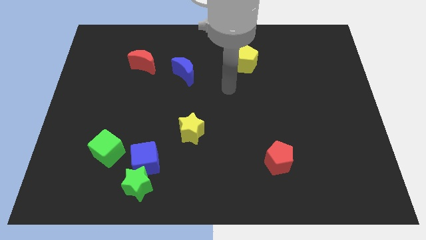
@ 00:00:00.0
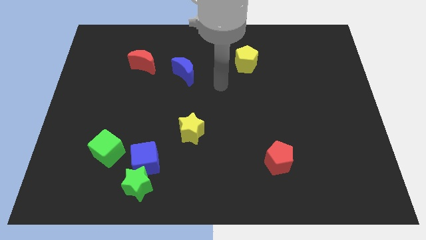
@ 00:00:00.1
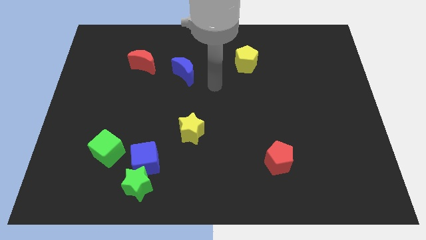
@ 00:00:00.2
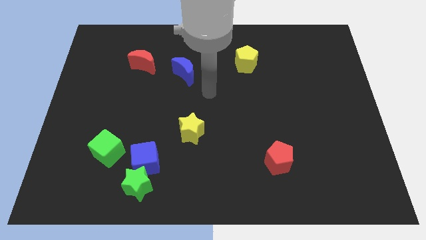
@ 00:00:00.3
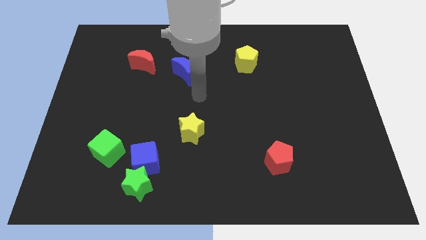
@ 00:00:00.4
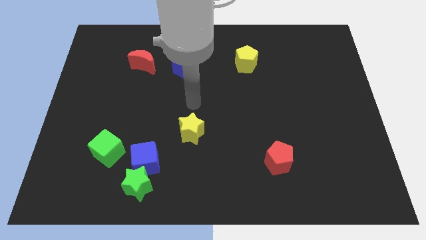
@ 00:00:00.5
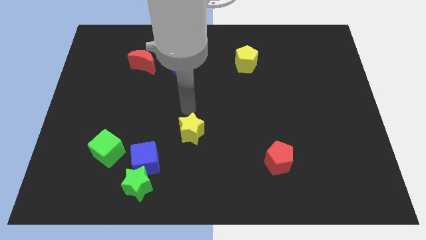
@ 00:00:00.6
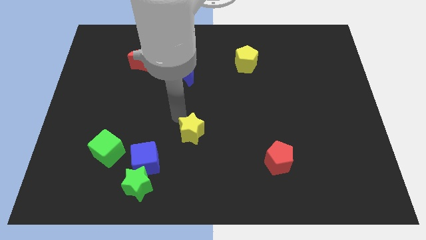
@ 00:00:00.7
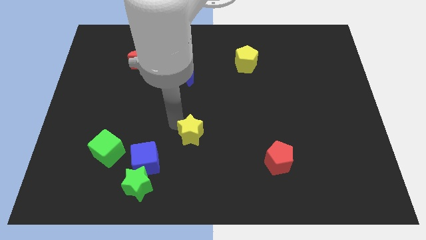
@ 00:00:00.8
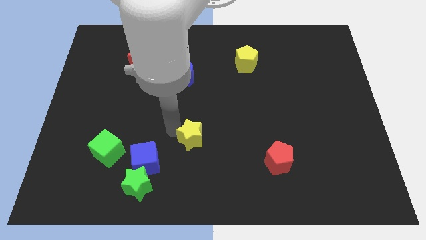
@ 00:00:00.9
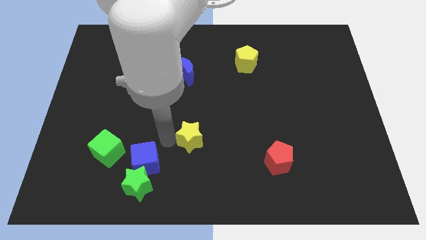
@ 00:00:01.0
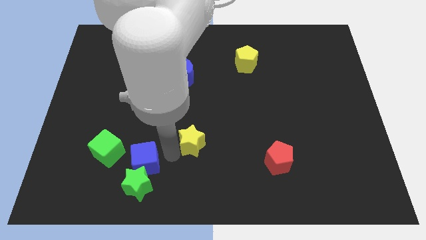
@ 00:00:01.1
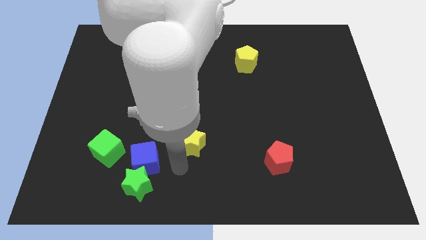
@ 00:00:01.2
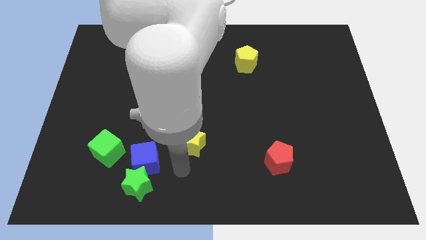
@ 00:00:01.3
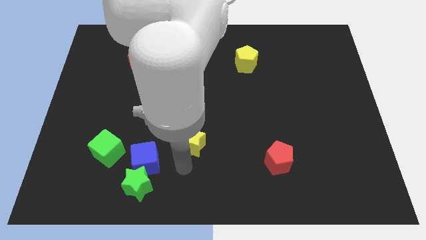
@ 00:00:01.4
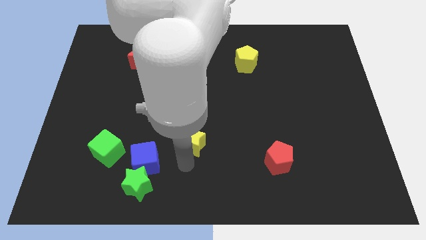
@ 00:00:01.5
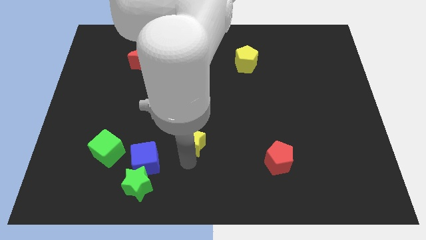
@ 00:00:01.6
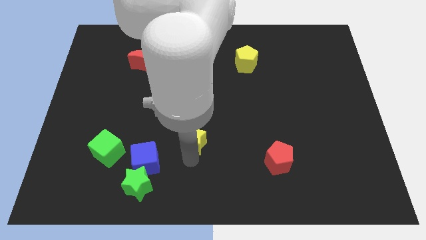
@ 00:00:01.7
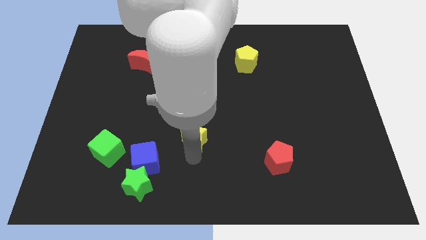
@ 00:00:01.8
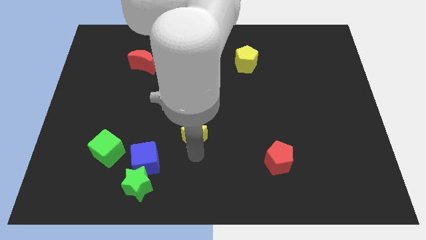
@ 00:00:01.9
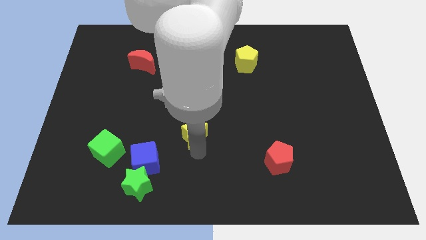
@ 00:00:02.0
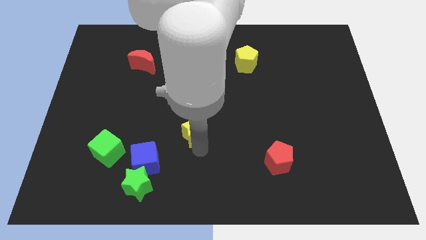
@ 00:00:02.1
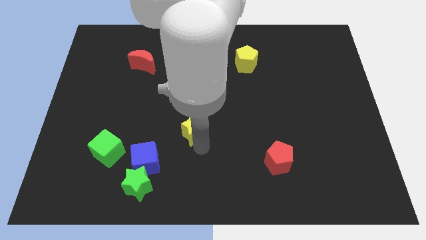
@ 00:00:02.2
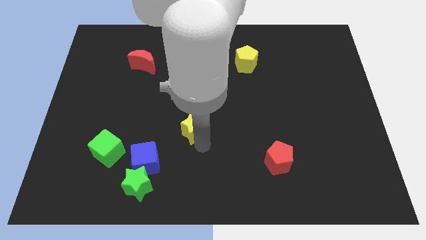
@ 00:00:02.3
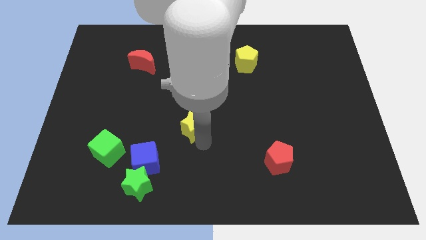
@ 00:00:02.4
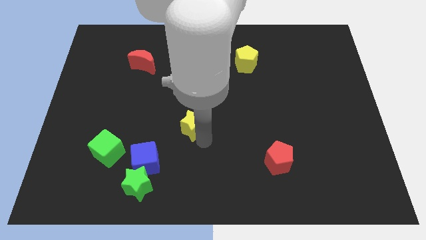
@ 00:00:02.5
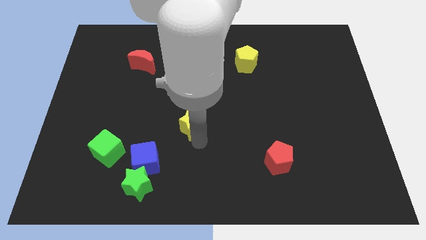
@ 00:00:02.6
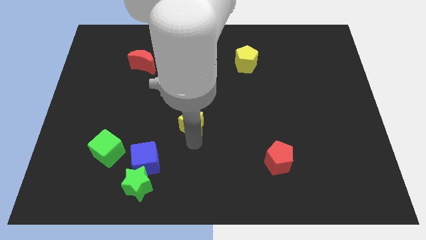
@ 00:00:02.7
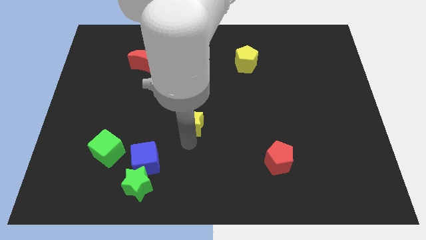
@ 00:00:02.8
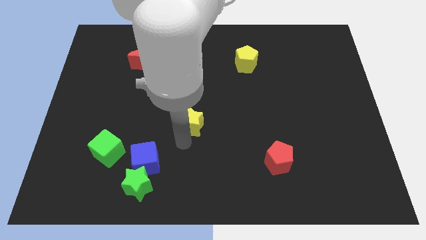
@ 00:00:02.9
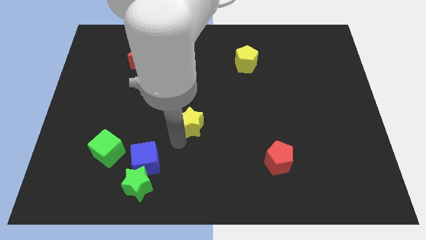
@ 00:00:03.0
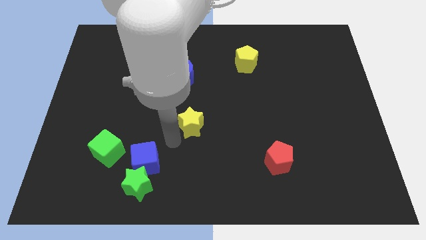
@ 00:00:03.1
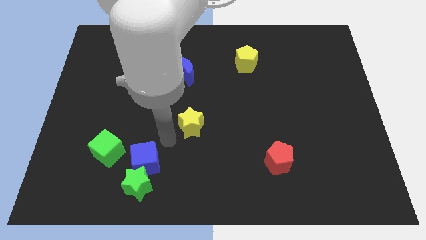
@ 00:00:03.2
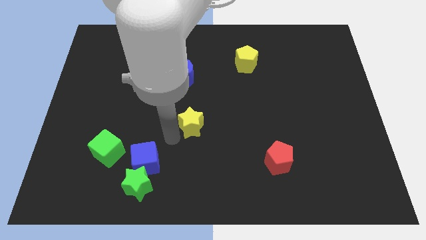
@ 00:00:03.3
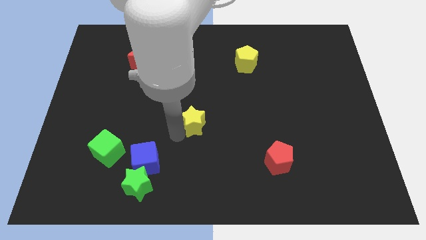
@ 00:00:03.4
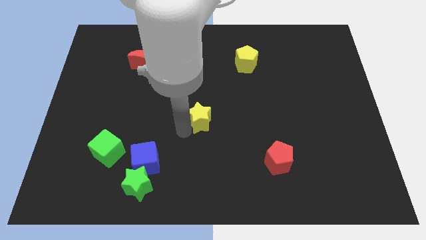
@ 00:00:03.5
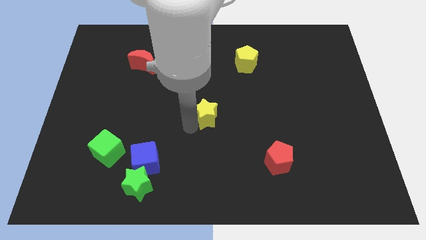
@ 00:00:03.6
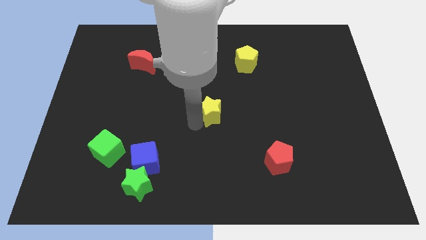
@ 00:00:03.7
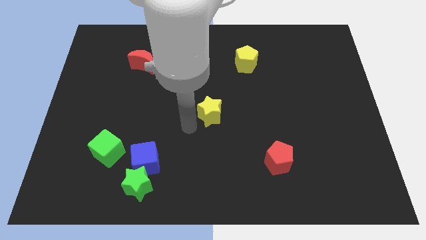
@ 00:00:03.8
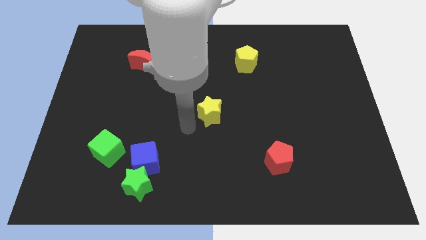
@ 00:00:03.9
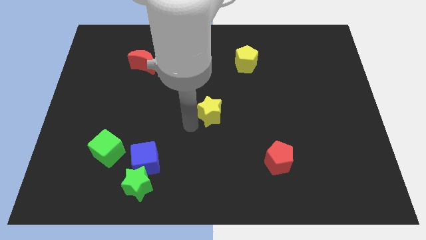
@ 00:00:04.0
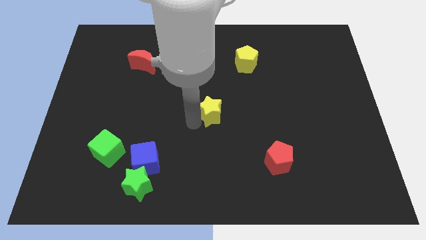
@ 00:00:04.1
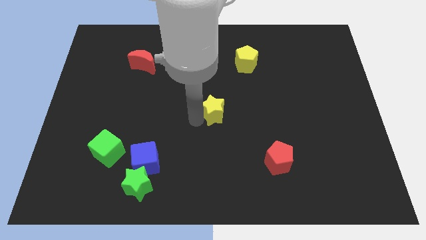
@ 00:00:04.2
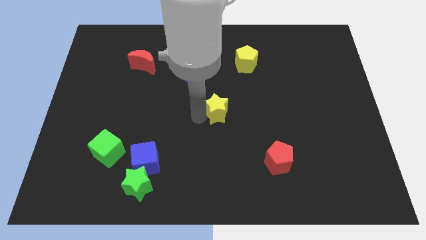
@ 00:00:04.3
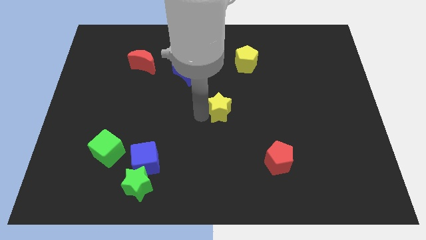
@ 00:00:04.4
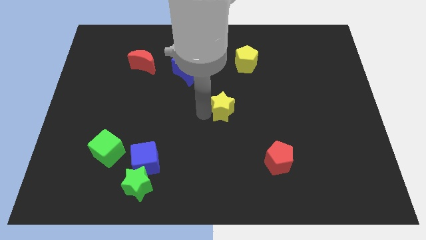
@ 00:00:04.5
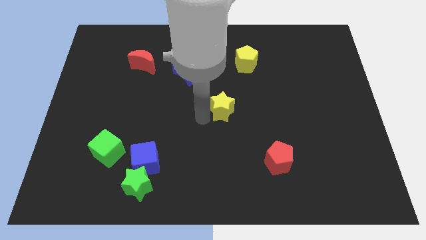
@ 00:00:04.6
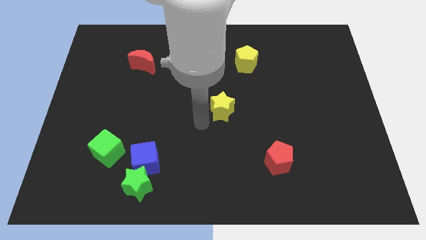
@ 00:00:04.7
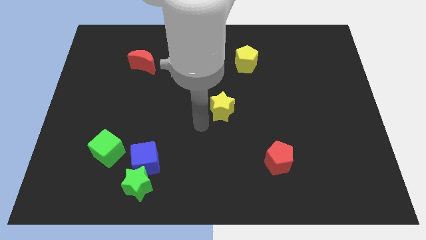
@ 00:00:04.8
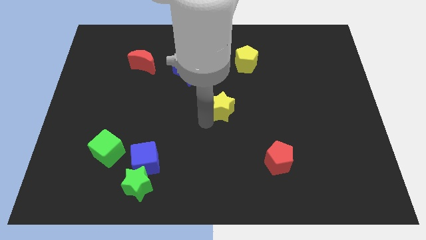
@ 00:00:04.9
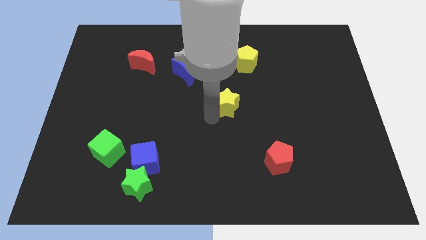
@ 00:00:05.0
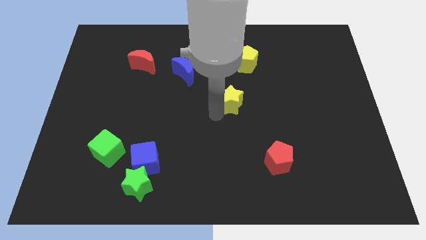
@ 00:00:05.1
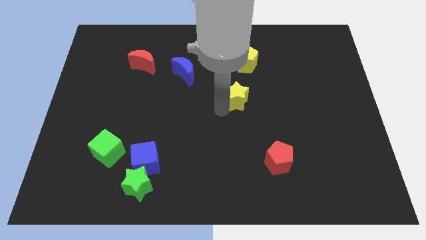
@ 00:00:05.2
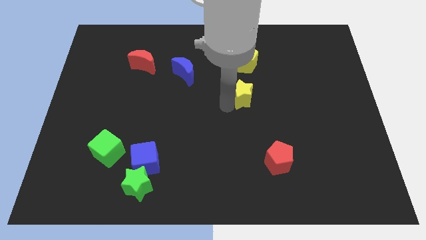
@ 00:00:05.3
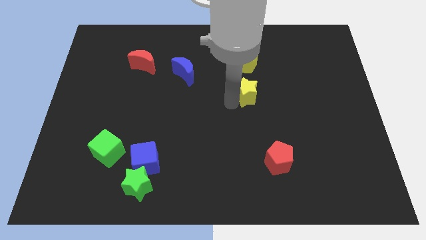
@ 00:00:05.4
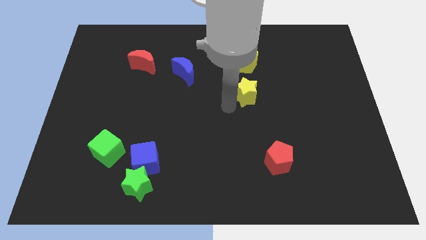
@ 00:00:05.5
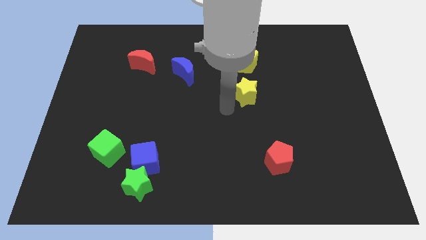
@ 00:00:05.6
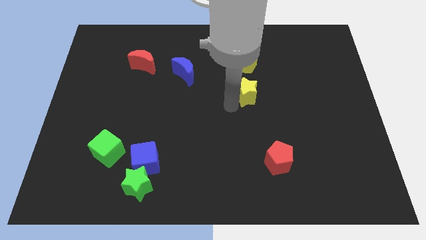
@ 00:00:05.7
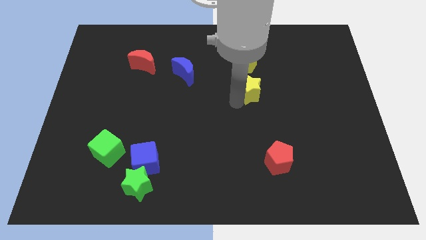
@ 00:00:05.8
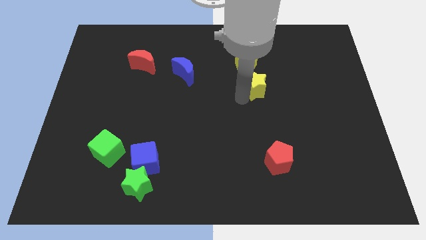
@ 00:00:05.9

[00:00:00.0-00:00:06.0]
move the yellow star upwards and to the right

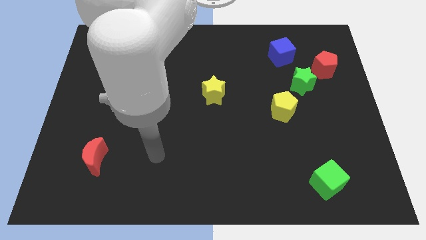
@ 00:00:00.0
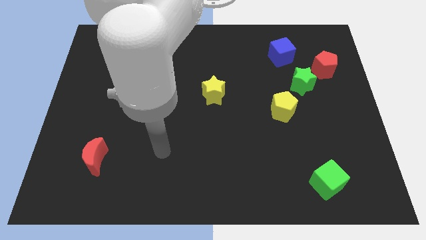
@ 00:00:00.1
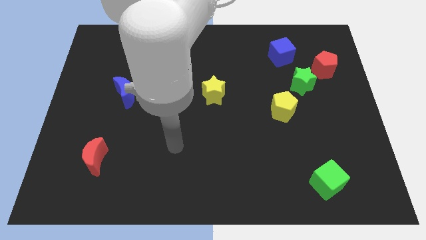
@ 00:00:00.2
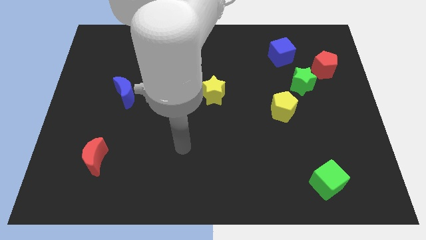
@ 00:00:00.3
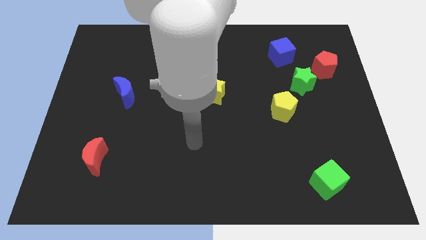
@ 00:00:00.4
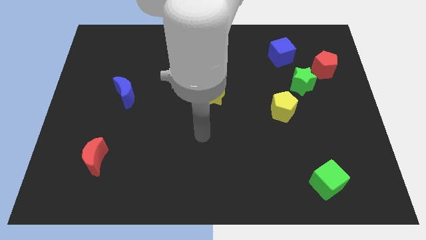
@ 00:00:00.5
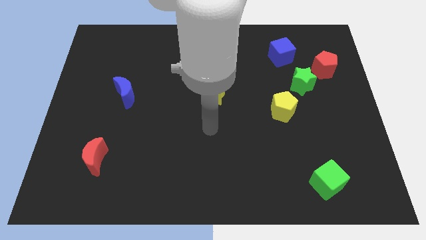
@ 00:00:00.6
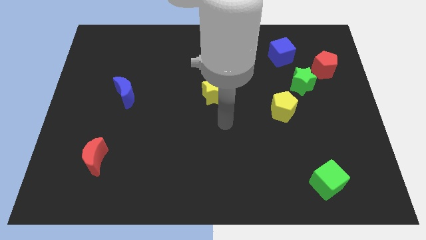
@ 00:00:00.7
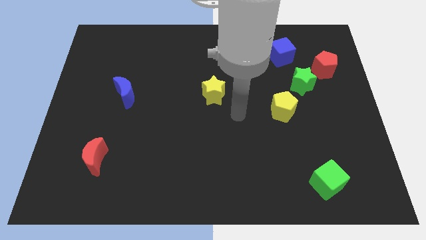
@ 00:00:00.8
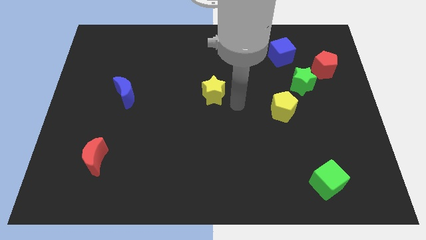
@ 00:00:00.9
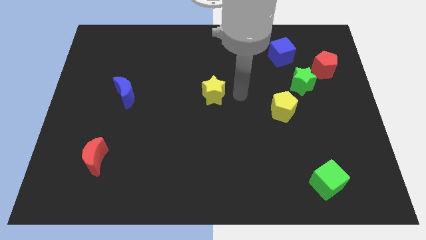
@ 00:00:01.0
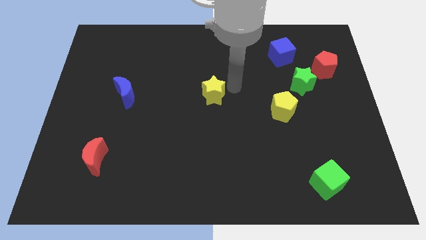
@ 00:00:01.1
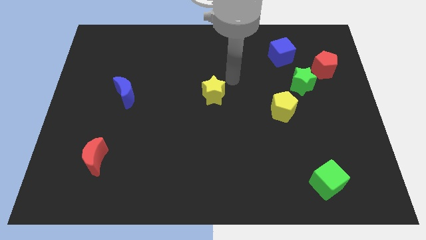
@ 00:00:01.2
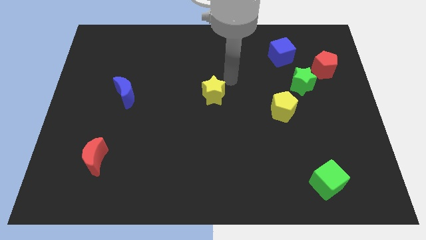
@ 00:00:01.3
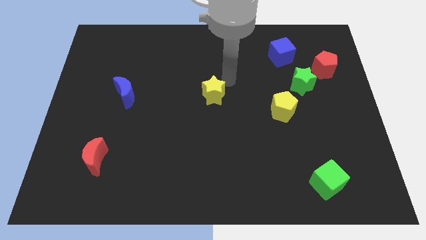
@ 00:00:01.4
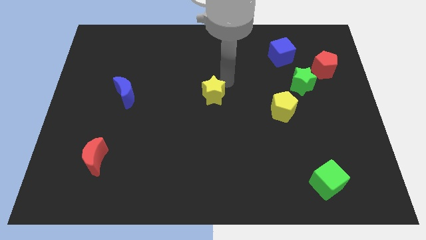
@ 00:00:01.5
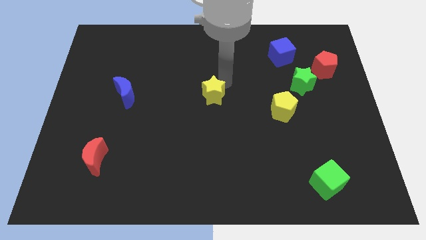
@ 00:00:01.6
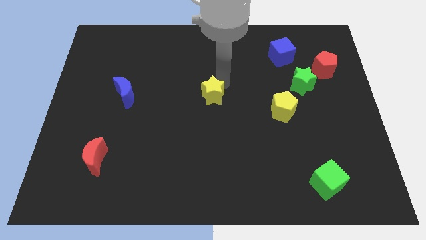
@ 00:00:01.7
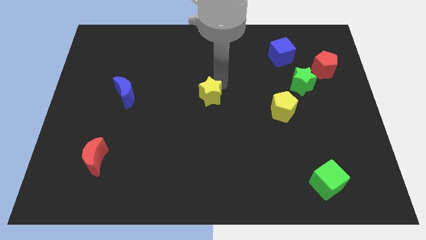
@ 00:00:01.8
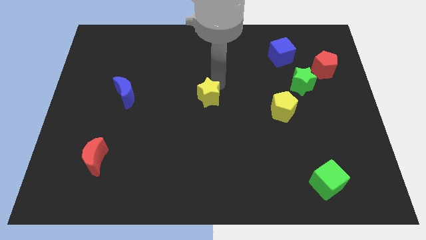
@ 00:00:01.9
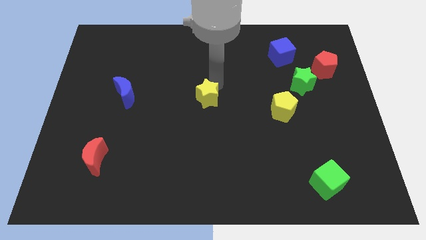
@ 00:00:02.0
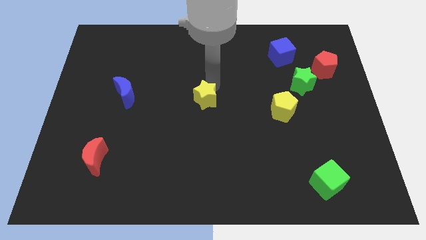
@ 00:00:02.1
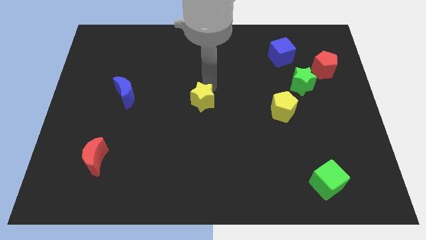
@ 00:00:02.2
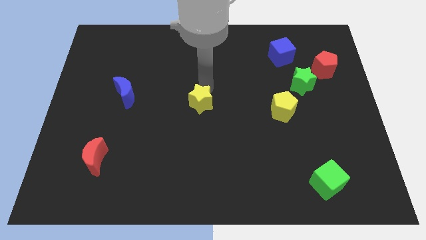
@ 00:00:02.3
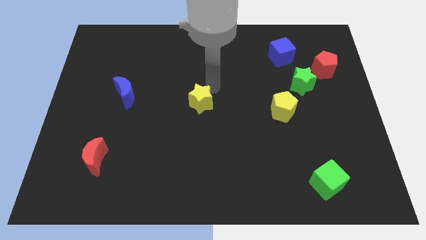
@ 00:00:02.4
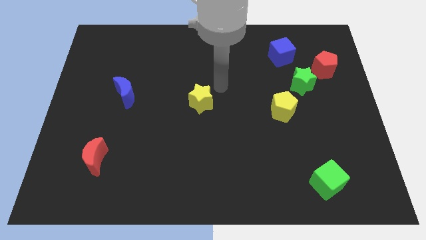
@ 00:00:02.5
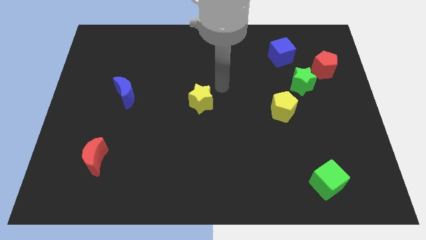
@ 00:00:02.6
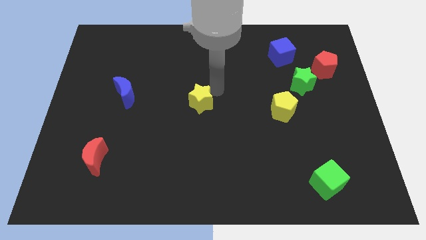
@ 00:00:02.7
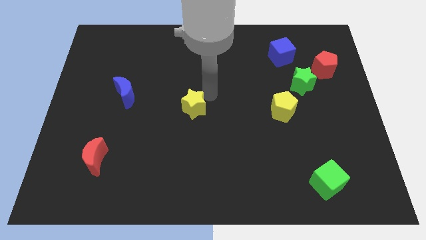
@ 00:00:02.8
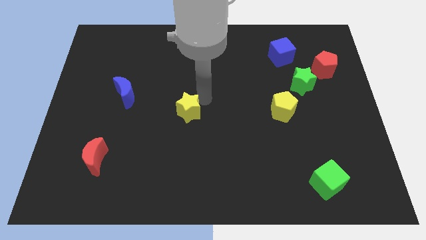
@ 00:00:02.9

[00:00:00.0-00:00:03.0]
move the yellow star down and then to the left a bit
